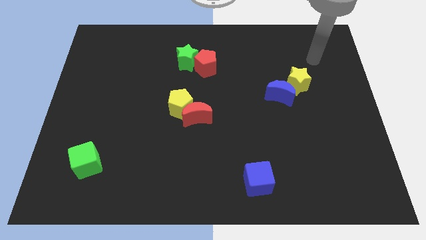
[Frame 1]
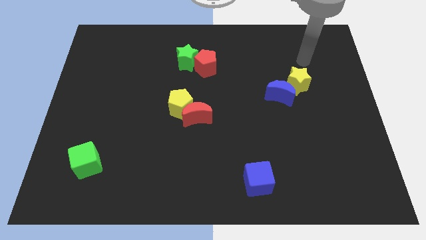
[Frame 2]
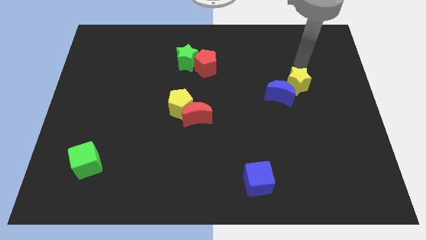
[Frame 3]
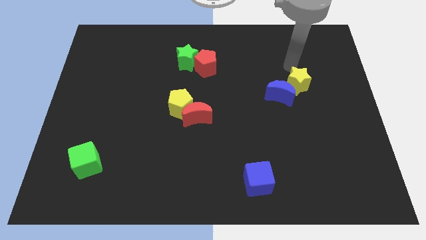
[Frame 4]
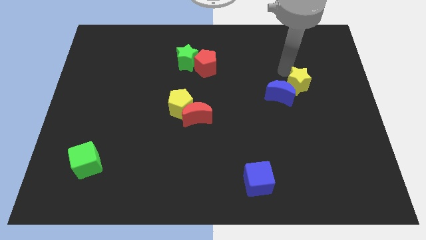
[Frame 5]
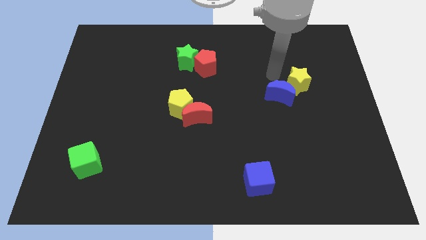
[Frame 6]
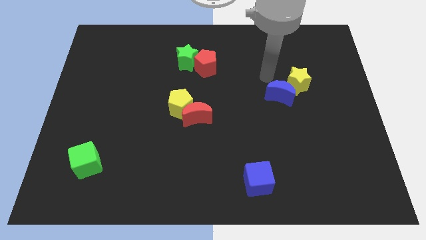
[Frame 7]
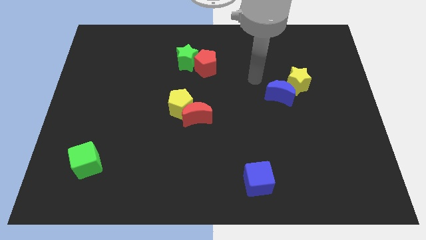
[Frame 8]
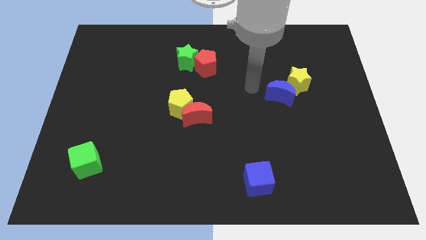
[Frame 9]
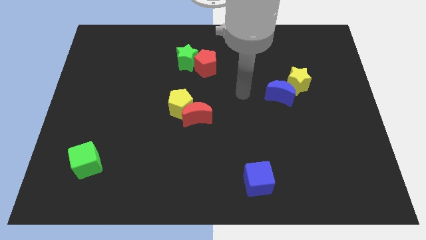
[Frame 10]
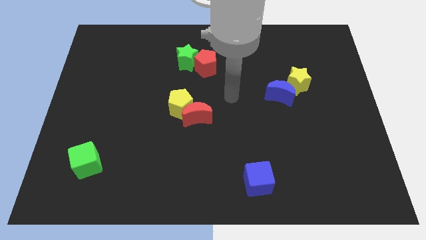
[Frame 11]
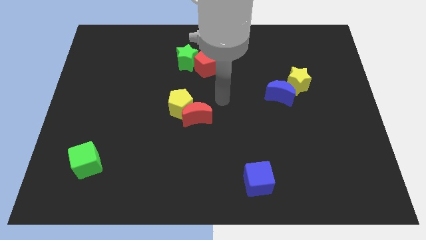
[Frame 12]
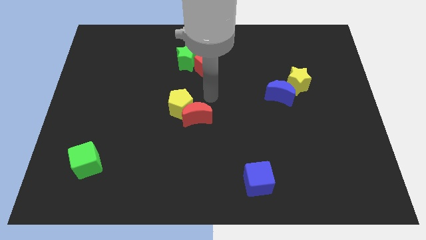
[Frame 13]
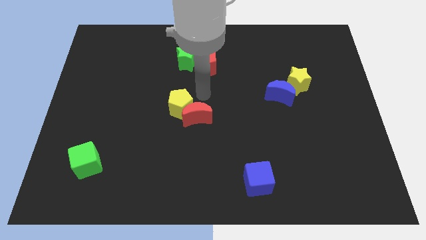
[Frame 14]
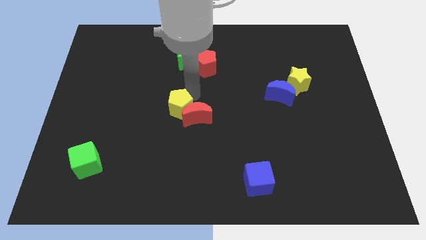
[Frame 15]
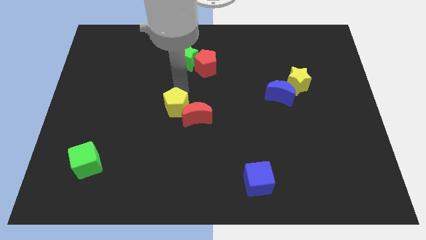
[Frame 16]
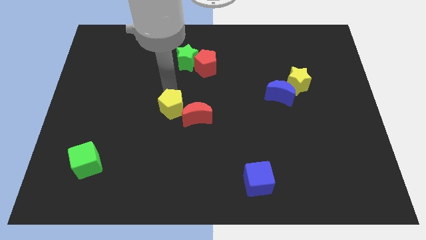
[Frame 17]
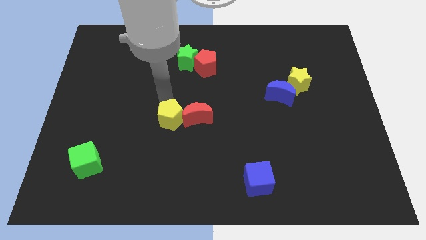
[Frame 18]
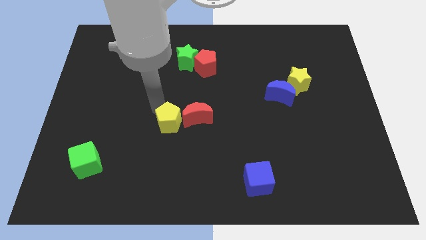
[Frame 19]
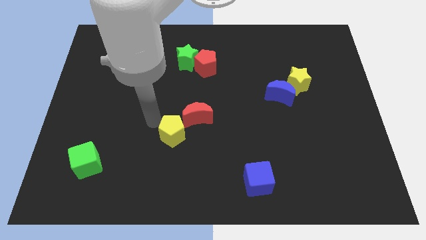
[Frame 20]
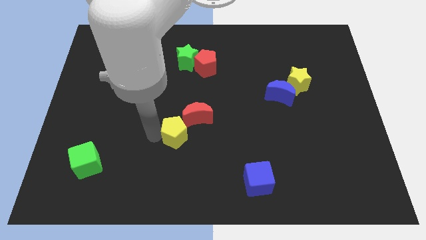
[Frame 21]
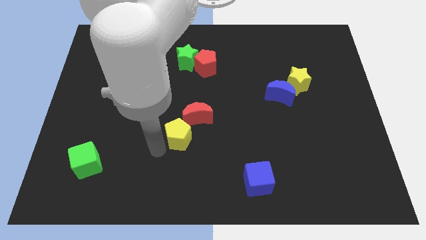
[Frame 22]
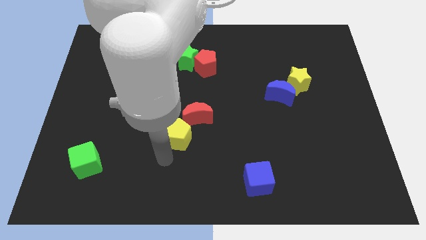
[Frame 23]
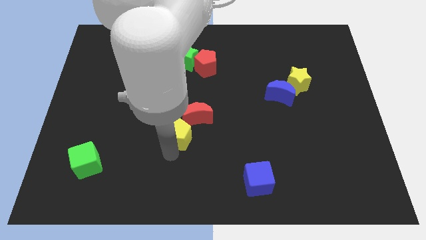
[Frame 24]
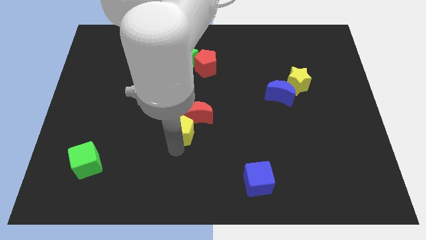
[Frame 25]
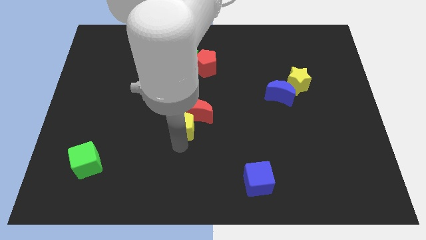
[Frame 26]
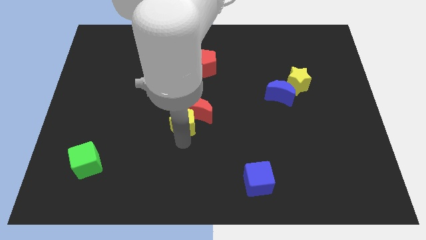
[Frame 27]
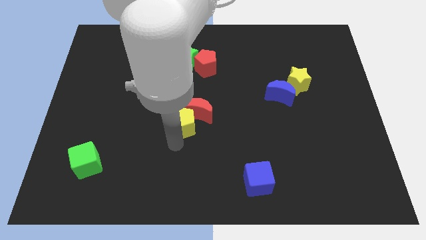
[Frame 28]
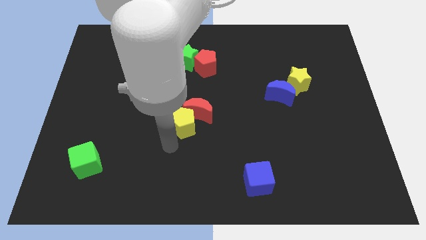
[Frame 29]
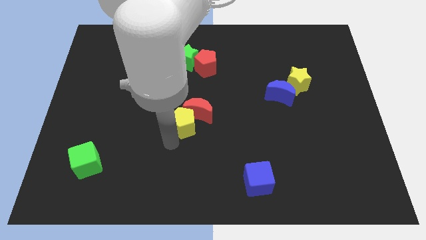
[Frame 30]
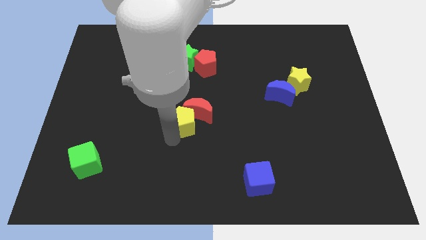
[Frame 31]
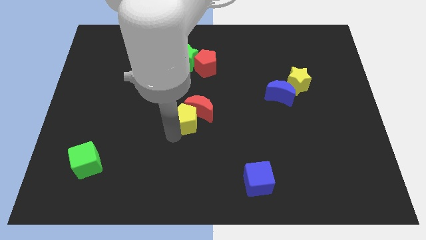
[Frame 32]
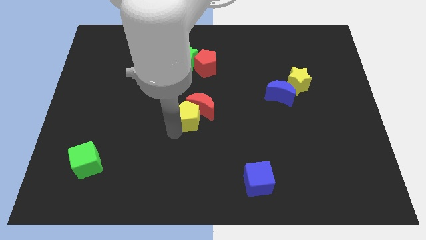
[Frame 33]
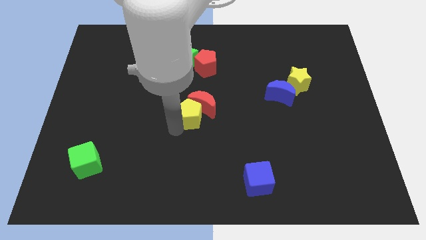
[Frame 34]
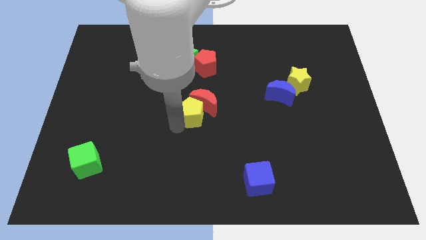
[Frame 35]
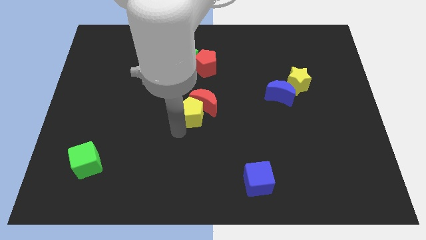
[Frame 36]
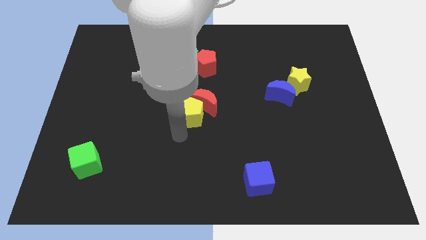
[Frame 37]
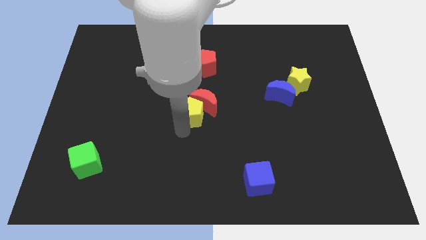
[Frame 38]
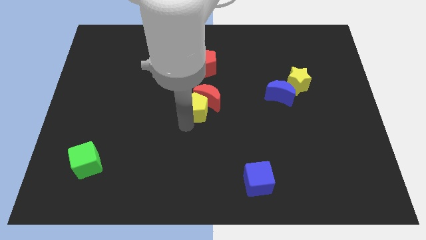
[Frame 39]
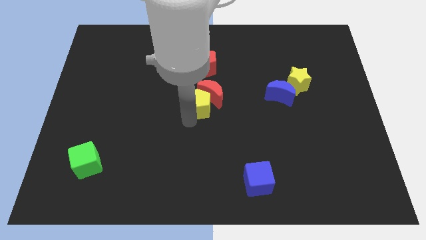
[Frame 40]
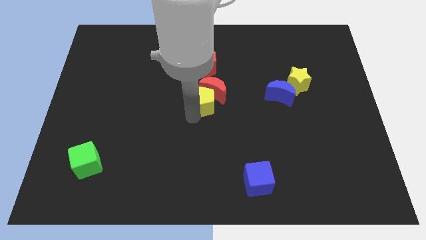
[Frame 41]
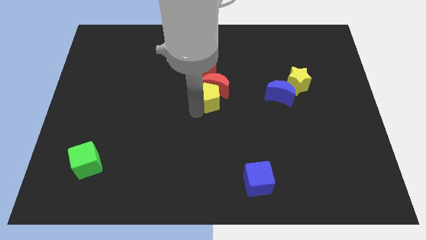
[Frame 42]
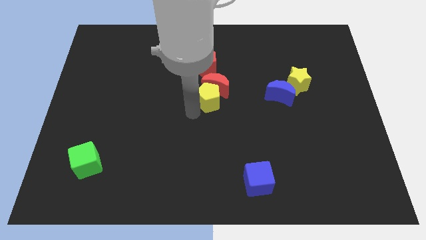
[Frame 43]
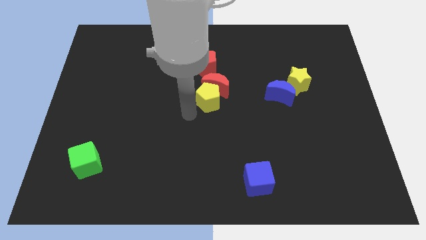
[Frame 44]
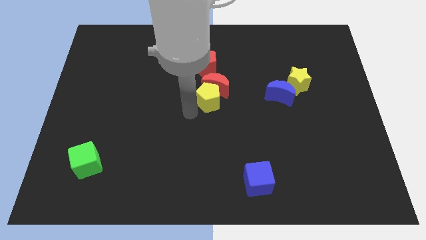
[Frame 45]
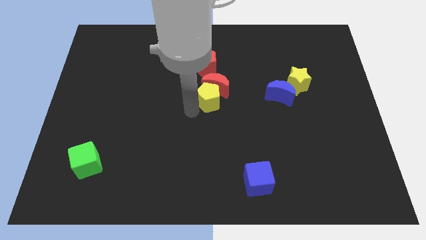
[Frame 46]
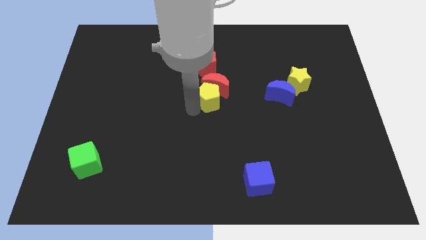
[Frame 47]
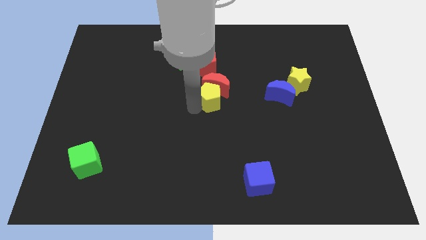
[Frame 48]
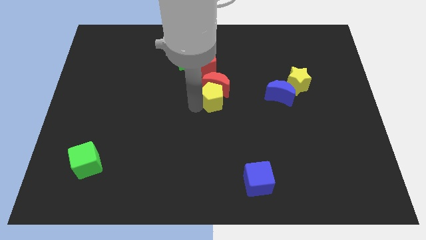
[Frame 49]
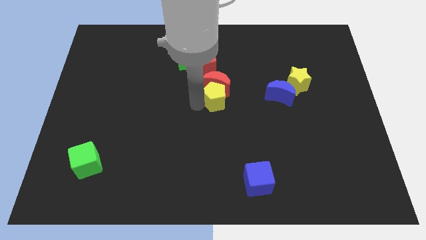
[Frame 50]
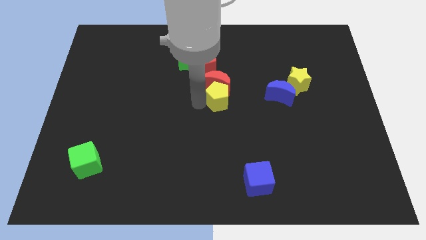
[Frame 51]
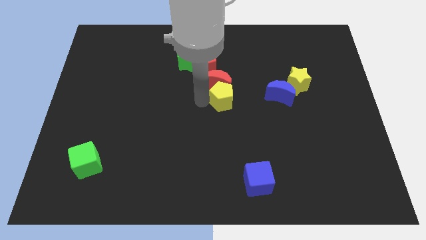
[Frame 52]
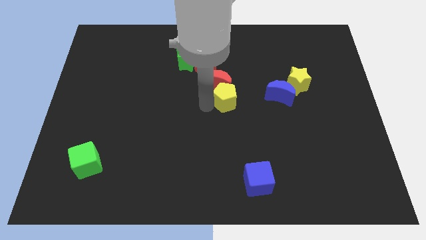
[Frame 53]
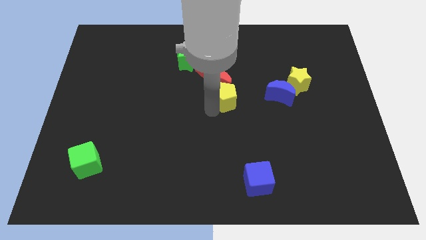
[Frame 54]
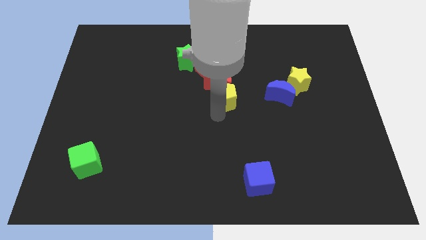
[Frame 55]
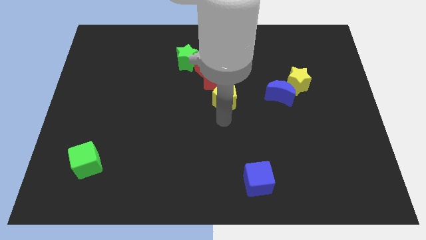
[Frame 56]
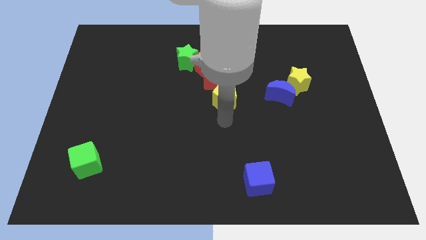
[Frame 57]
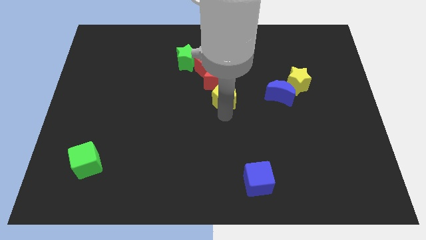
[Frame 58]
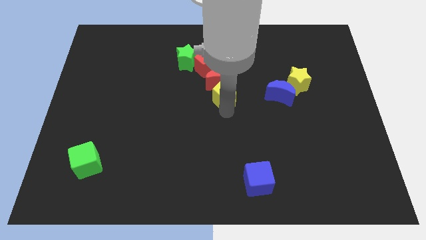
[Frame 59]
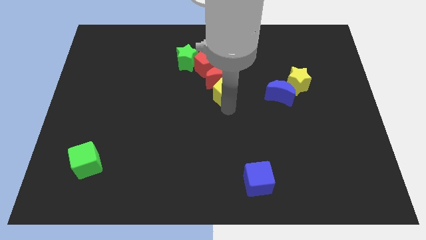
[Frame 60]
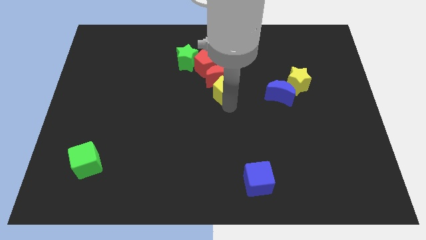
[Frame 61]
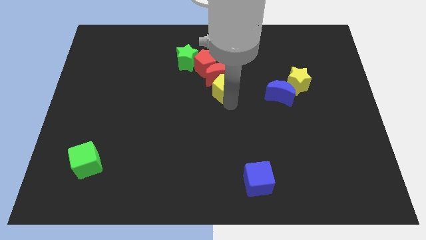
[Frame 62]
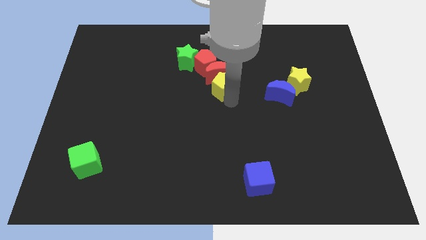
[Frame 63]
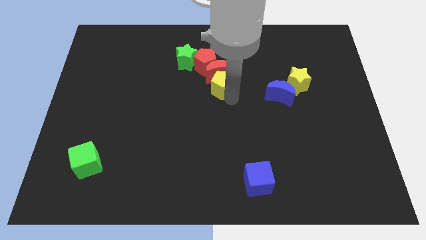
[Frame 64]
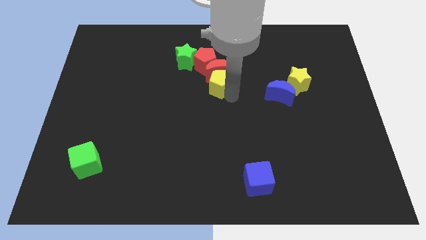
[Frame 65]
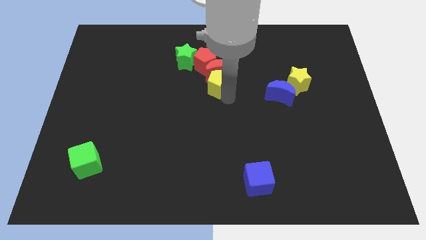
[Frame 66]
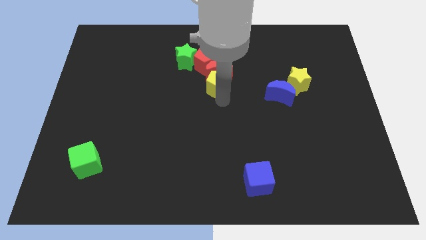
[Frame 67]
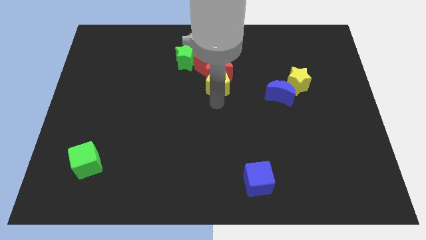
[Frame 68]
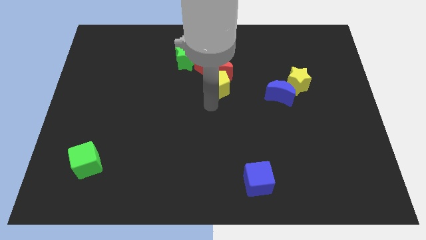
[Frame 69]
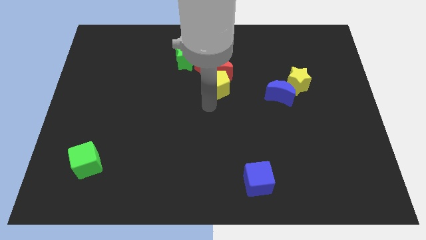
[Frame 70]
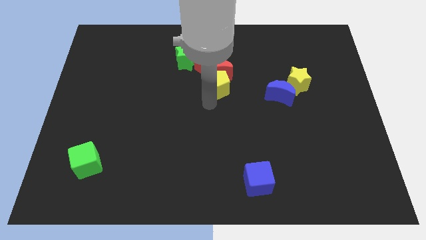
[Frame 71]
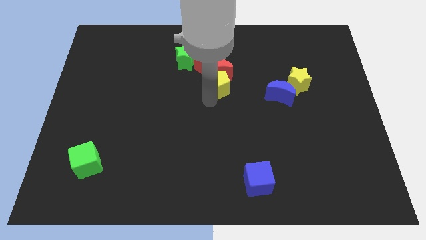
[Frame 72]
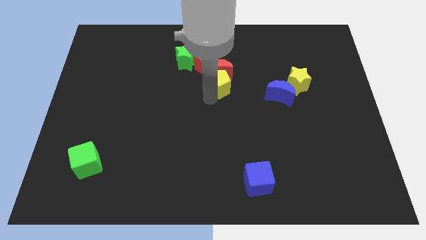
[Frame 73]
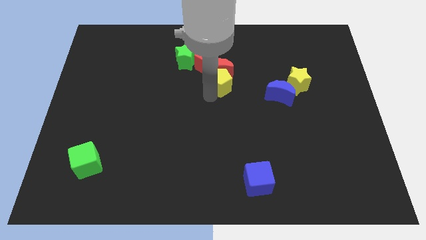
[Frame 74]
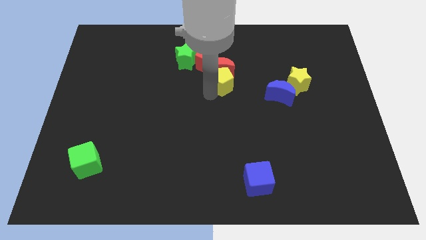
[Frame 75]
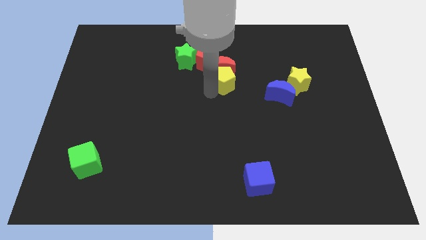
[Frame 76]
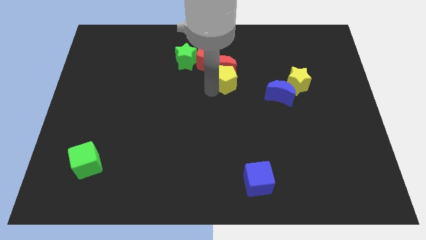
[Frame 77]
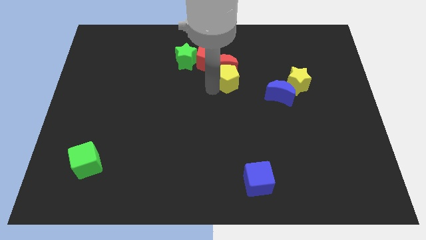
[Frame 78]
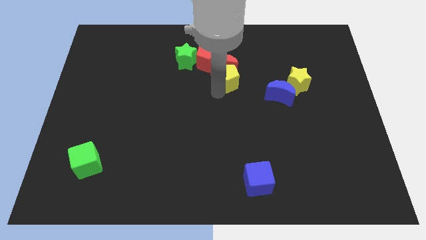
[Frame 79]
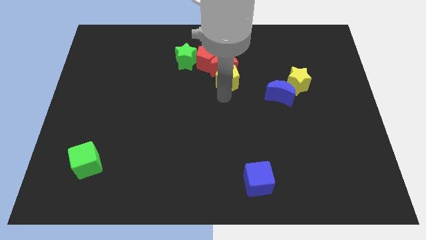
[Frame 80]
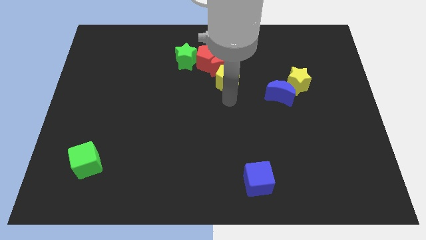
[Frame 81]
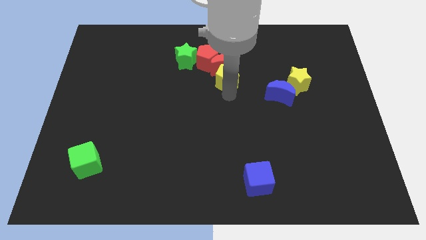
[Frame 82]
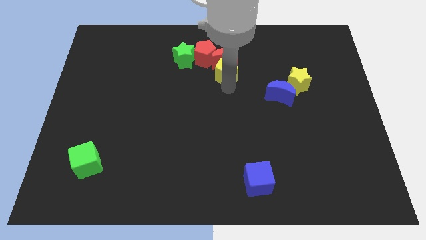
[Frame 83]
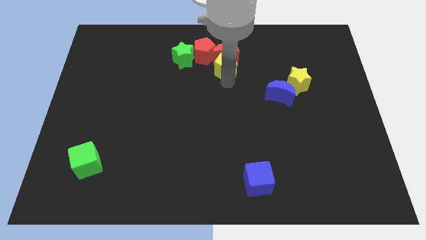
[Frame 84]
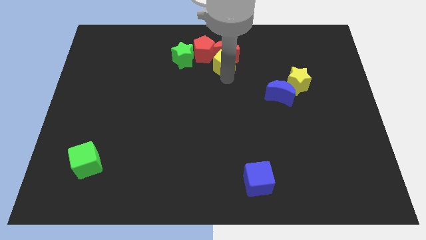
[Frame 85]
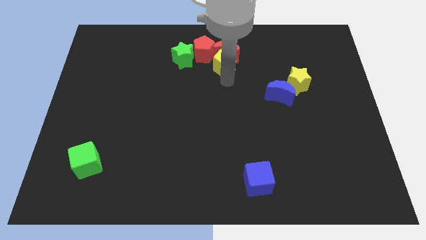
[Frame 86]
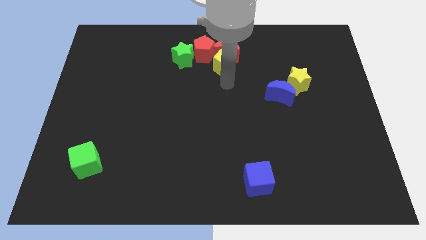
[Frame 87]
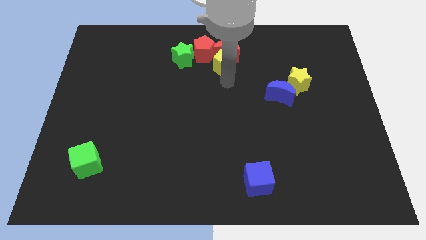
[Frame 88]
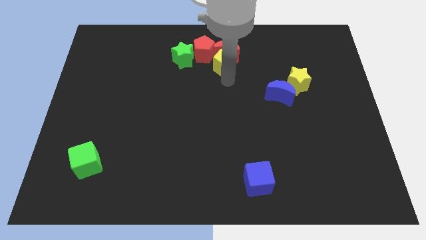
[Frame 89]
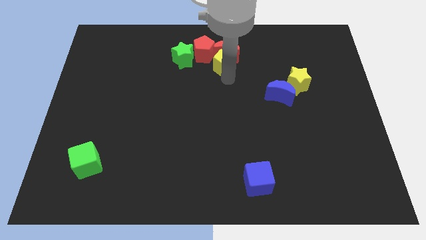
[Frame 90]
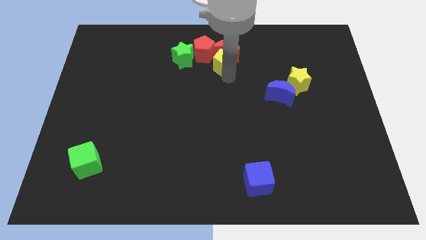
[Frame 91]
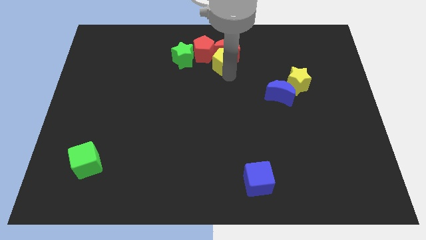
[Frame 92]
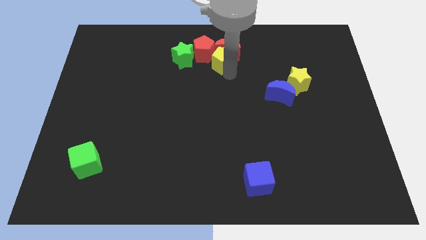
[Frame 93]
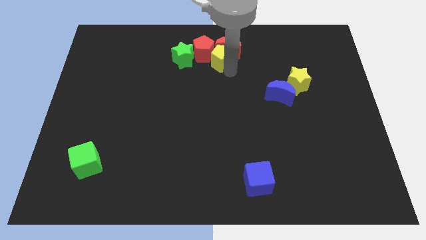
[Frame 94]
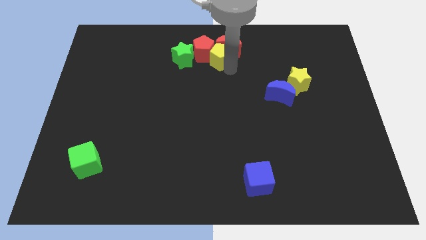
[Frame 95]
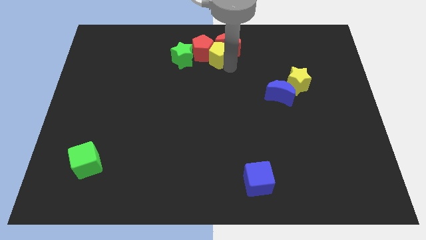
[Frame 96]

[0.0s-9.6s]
move the yellow pentagon to the top
